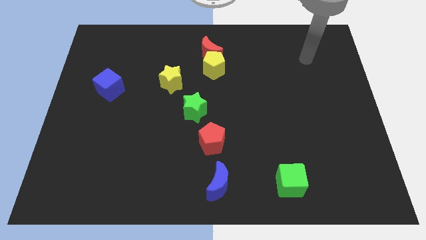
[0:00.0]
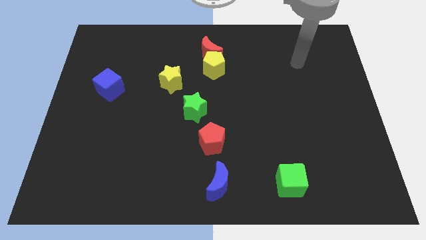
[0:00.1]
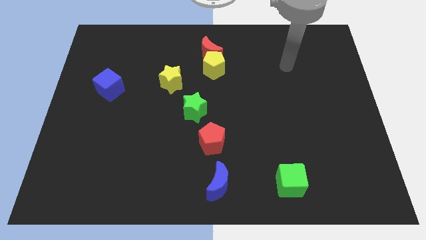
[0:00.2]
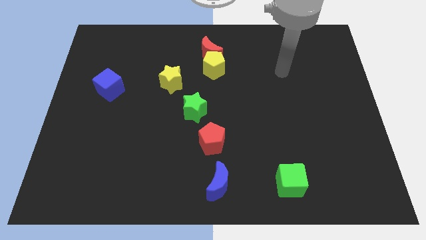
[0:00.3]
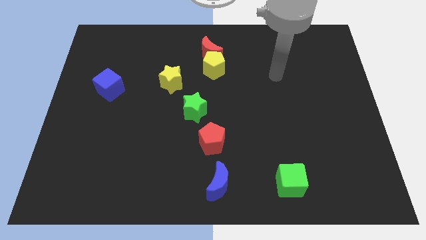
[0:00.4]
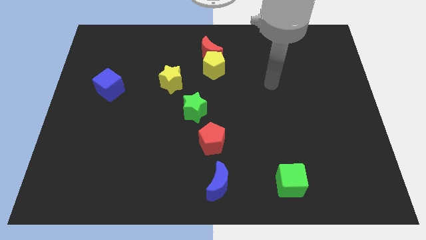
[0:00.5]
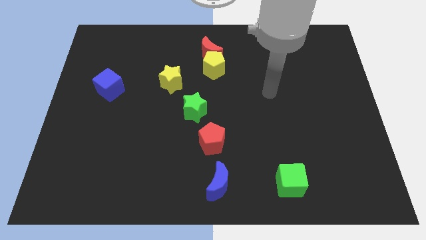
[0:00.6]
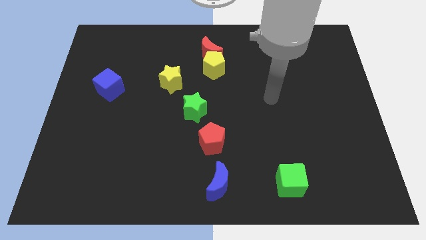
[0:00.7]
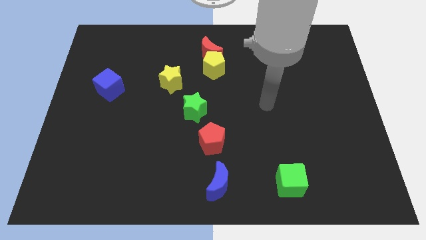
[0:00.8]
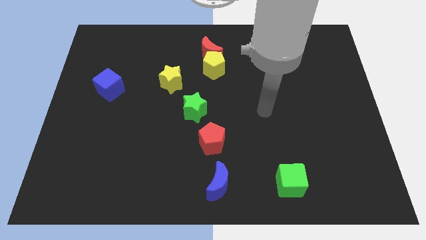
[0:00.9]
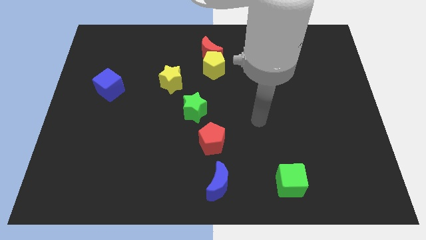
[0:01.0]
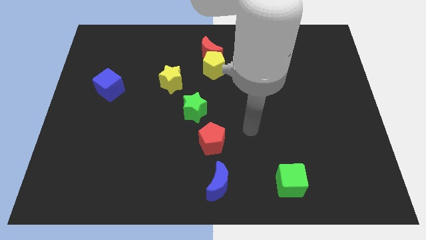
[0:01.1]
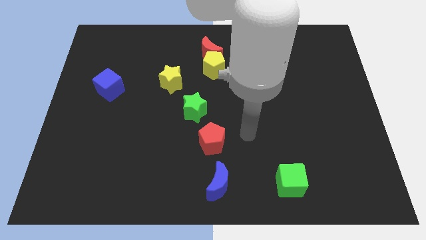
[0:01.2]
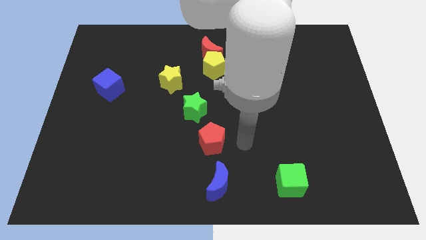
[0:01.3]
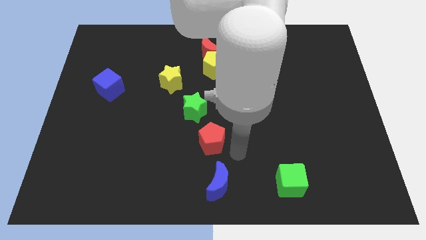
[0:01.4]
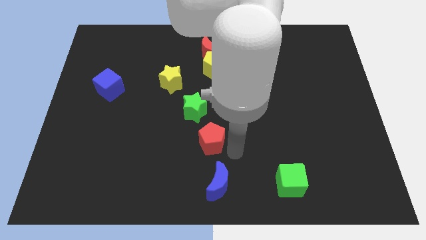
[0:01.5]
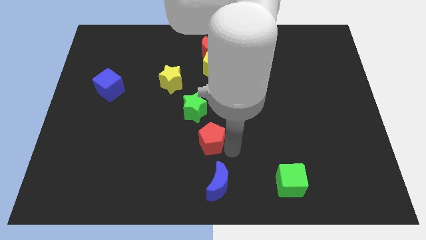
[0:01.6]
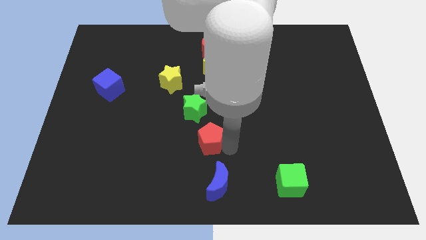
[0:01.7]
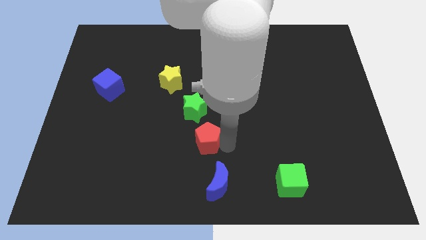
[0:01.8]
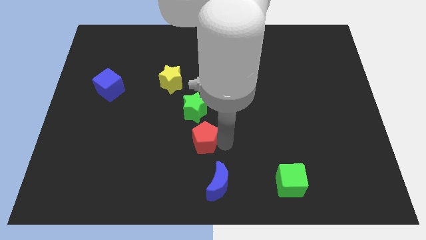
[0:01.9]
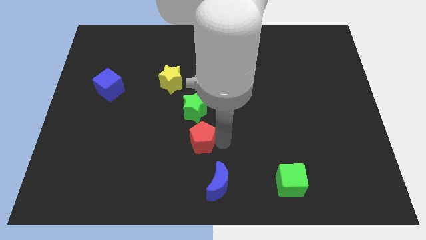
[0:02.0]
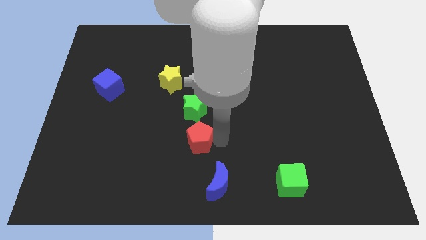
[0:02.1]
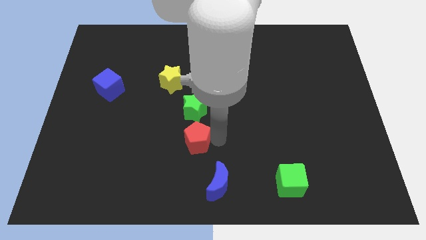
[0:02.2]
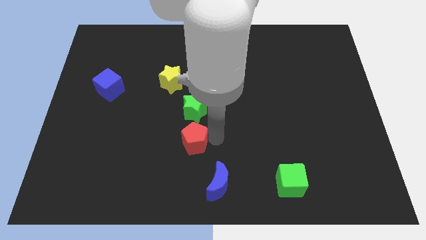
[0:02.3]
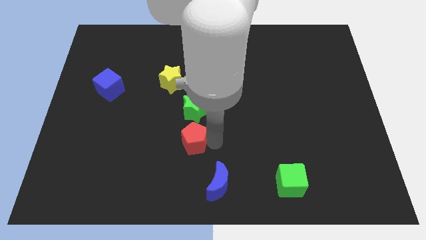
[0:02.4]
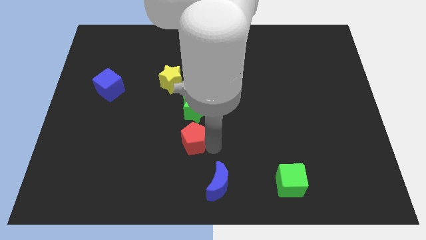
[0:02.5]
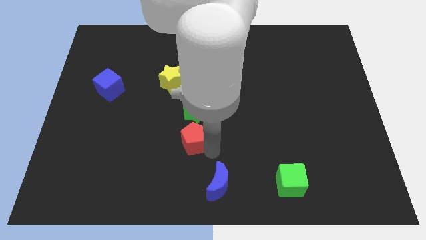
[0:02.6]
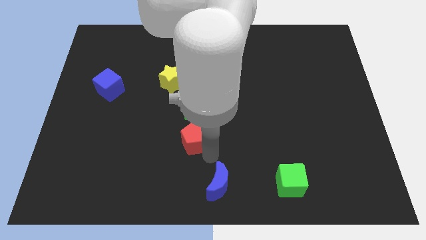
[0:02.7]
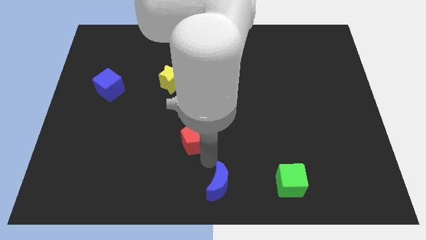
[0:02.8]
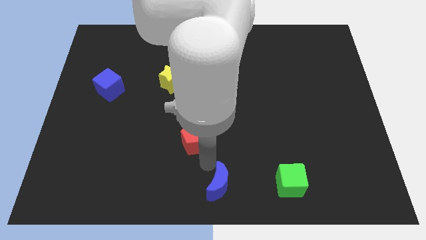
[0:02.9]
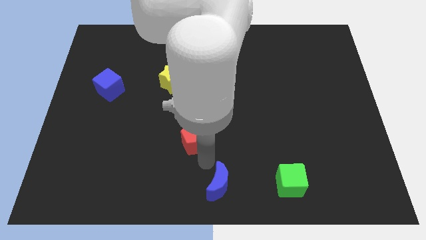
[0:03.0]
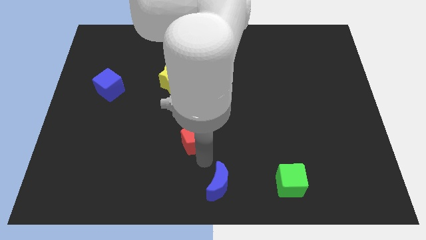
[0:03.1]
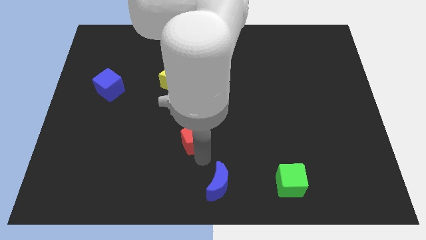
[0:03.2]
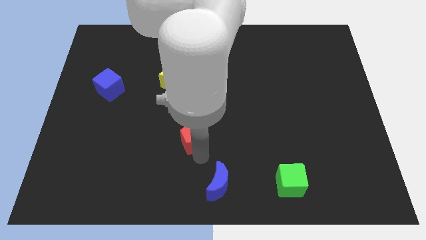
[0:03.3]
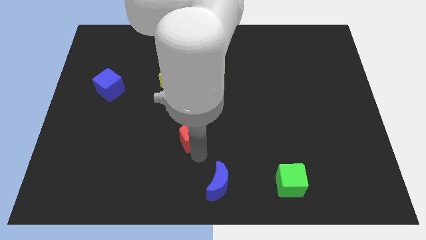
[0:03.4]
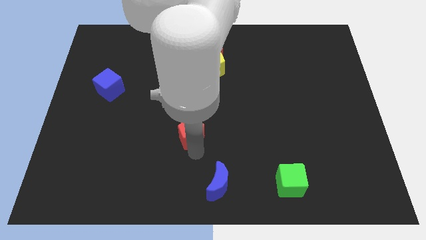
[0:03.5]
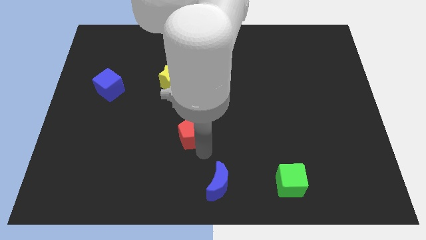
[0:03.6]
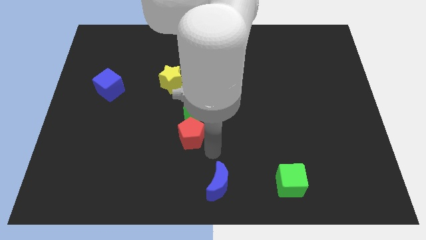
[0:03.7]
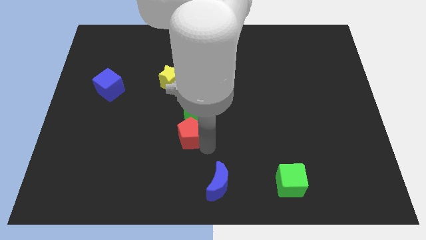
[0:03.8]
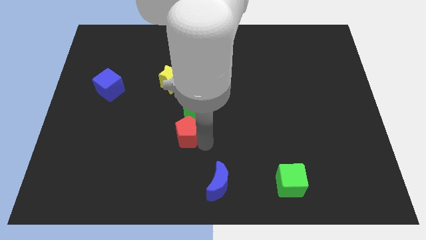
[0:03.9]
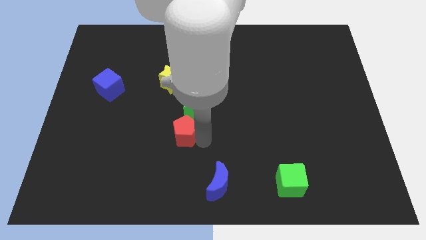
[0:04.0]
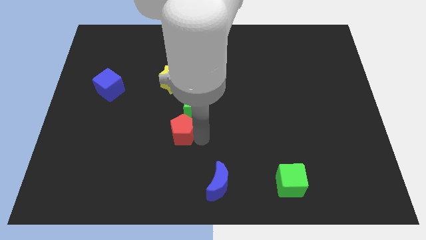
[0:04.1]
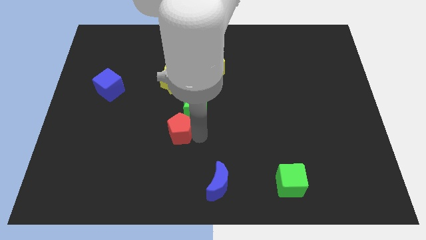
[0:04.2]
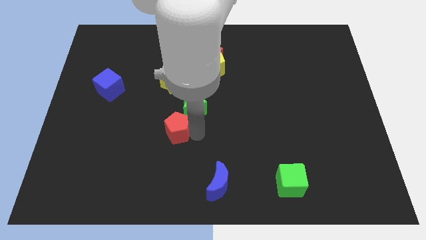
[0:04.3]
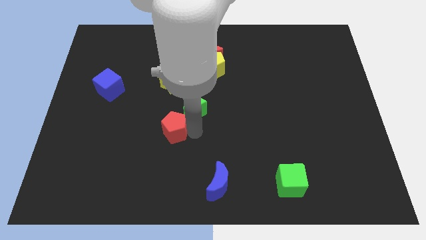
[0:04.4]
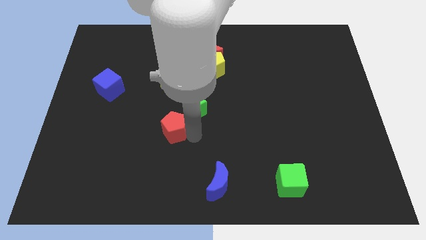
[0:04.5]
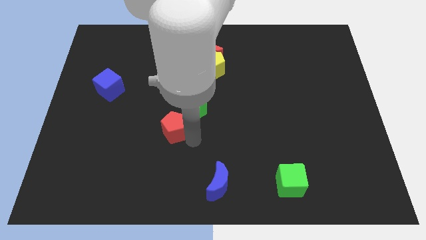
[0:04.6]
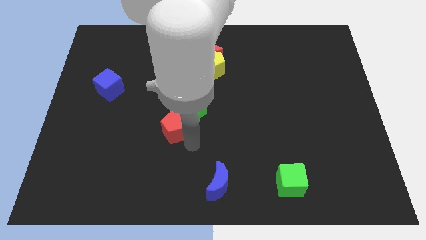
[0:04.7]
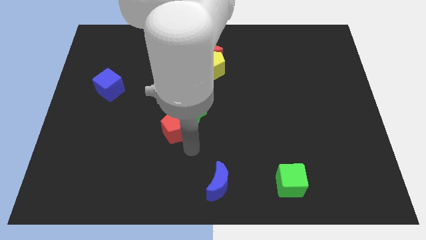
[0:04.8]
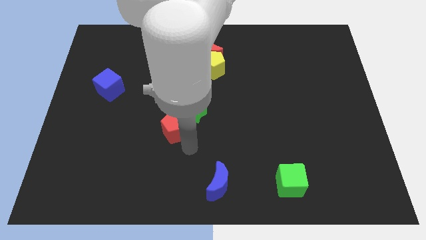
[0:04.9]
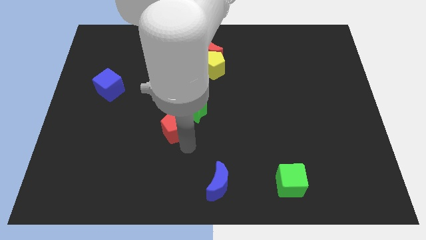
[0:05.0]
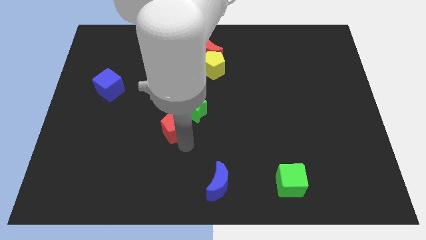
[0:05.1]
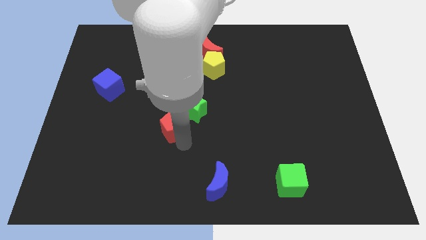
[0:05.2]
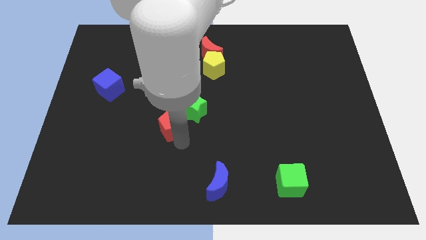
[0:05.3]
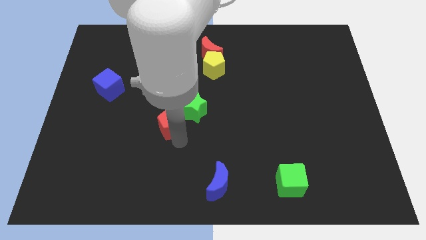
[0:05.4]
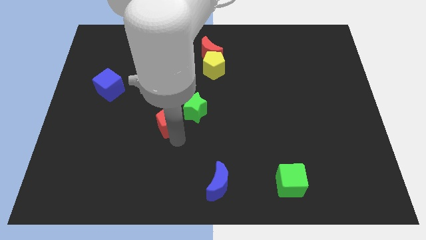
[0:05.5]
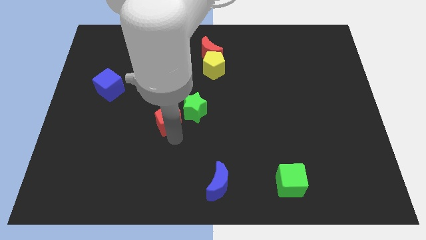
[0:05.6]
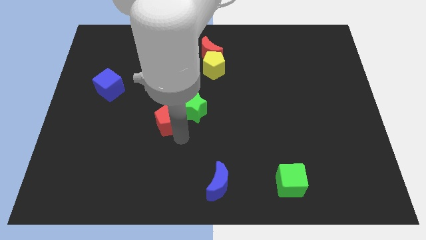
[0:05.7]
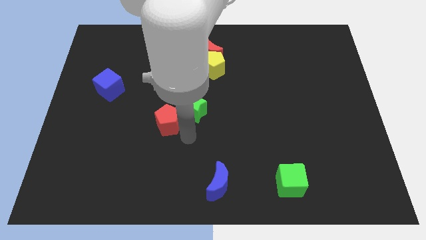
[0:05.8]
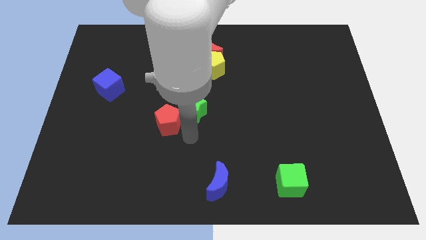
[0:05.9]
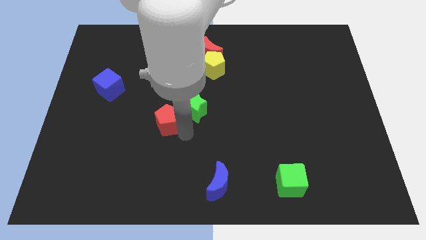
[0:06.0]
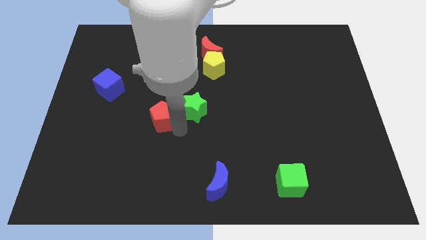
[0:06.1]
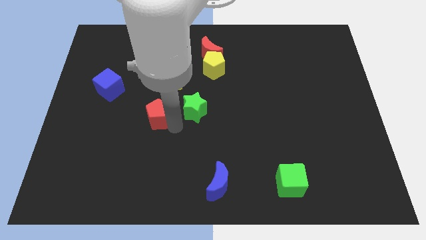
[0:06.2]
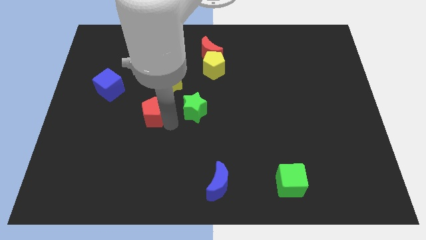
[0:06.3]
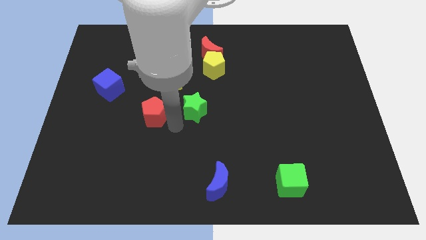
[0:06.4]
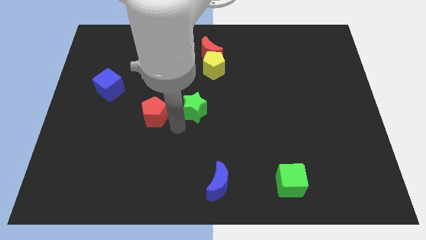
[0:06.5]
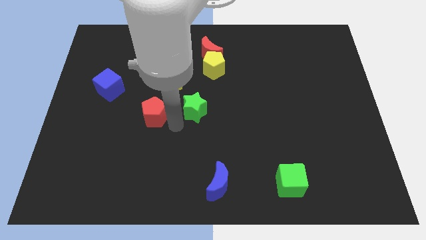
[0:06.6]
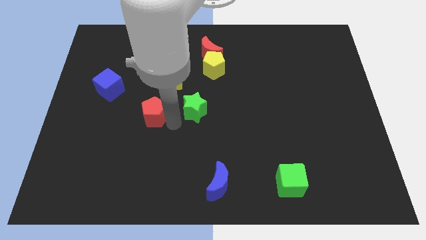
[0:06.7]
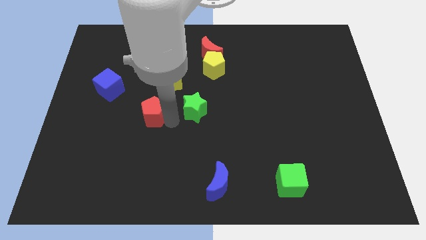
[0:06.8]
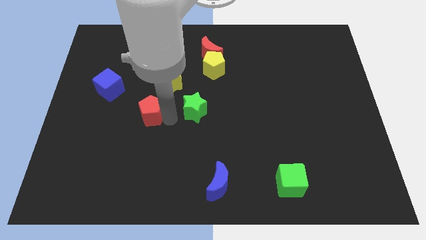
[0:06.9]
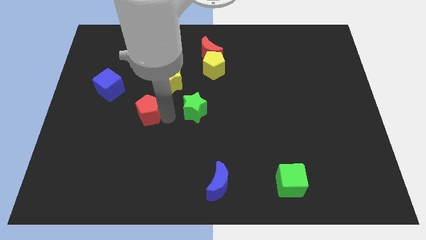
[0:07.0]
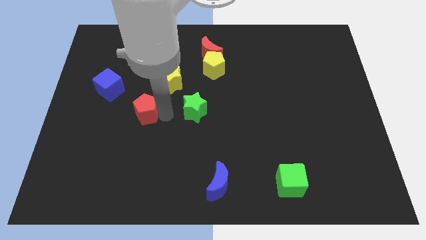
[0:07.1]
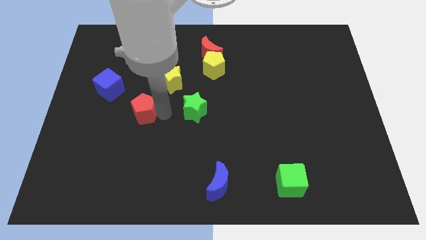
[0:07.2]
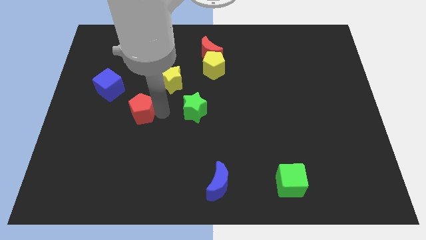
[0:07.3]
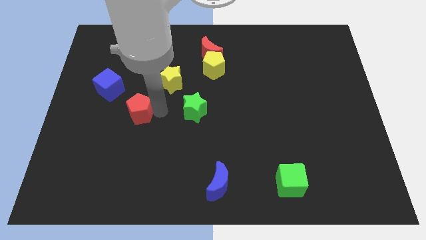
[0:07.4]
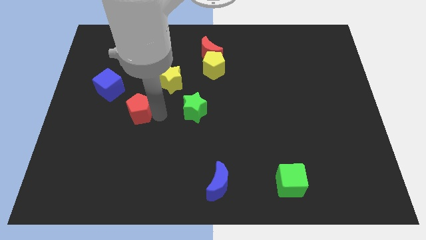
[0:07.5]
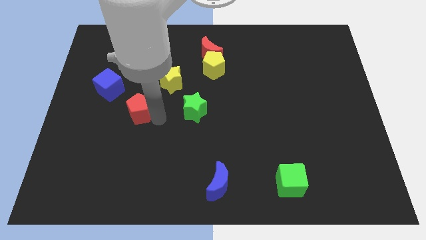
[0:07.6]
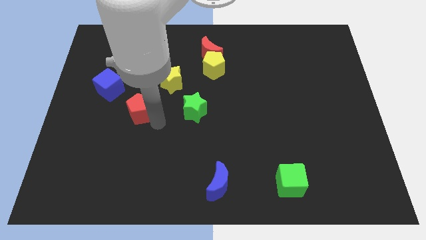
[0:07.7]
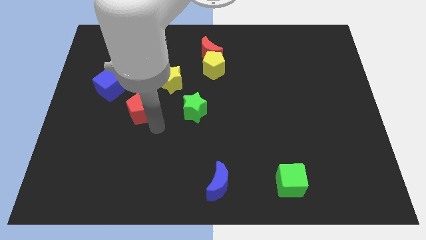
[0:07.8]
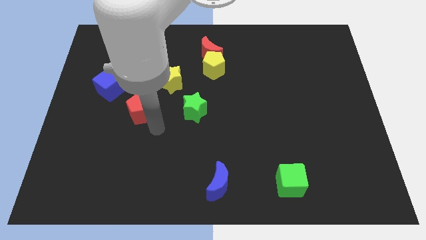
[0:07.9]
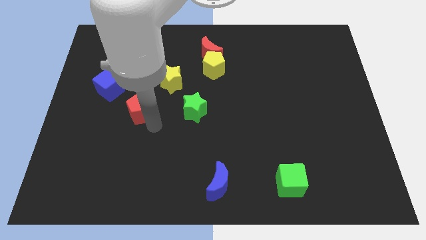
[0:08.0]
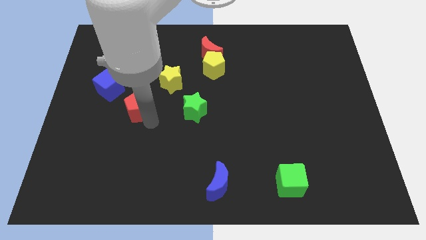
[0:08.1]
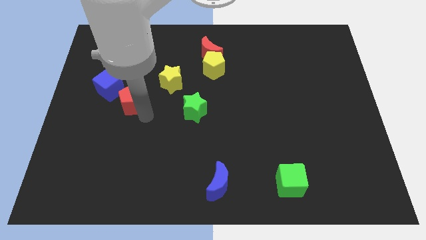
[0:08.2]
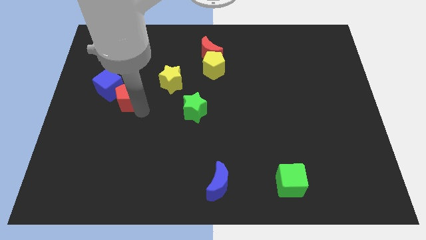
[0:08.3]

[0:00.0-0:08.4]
put the red pentagon towards the blue cube
